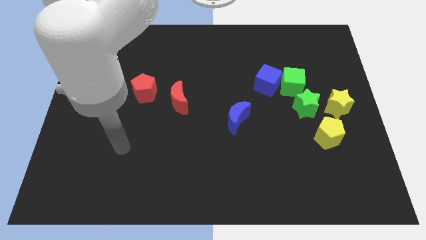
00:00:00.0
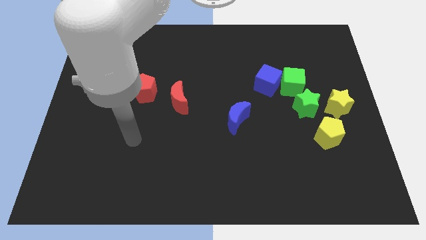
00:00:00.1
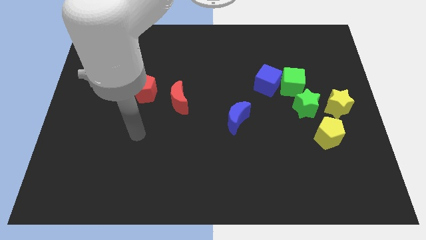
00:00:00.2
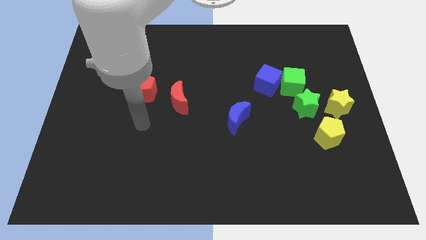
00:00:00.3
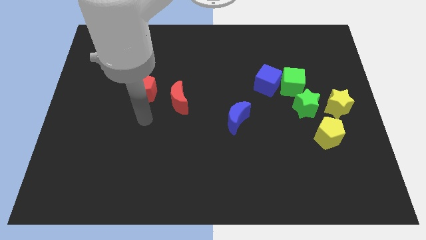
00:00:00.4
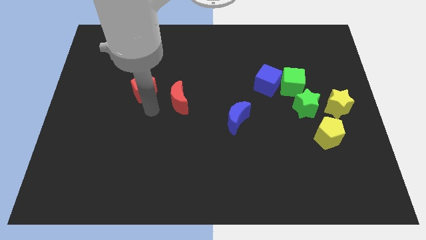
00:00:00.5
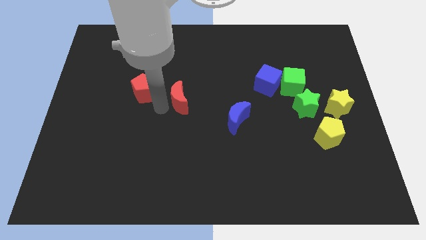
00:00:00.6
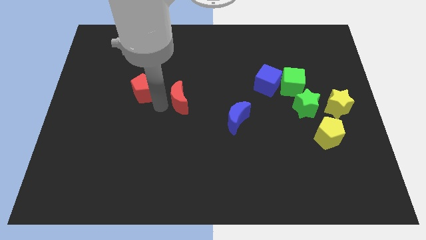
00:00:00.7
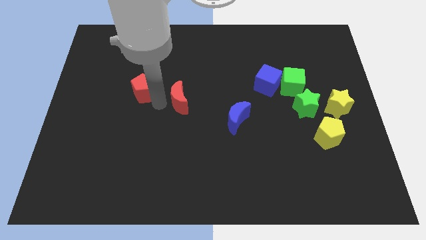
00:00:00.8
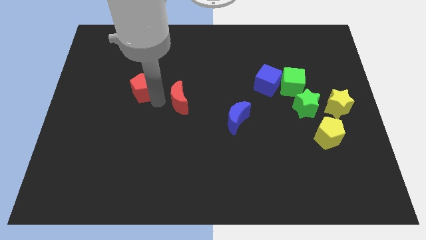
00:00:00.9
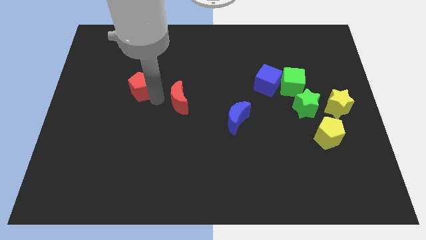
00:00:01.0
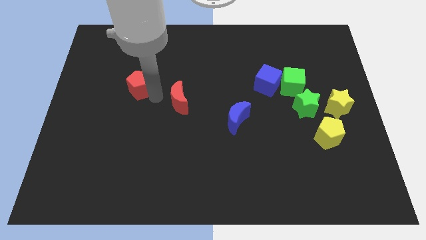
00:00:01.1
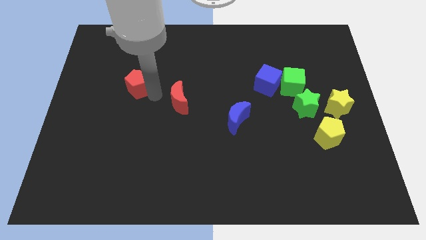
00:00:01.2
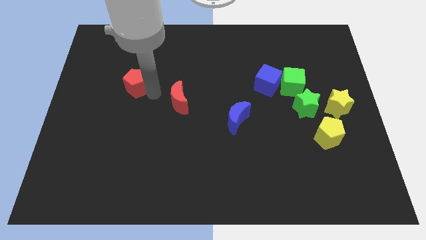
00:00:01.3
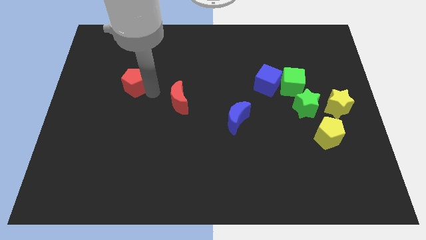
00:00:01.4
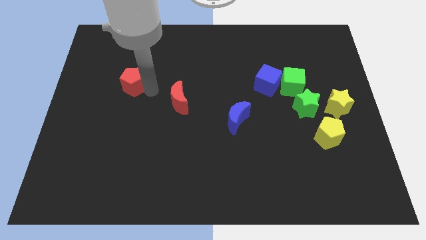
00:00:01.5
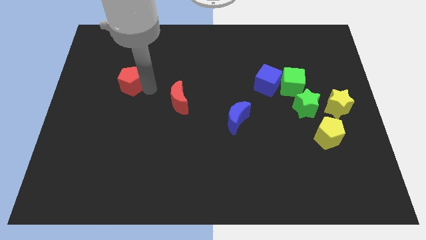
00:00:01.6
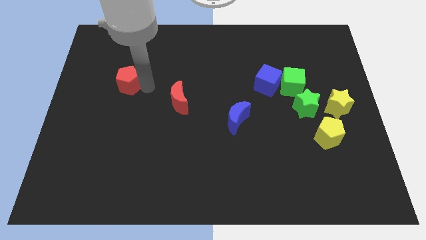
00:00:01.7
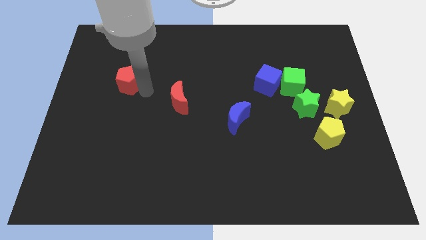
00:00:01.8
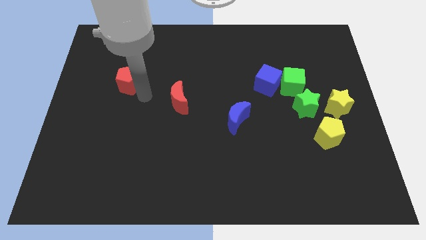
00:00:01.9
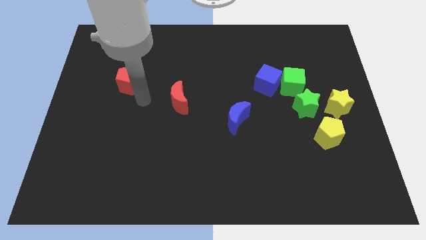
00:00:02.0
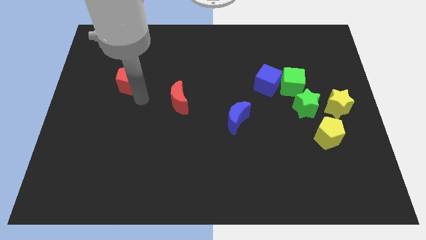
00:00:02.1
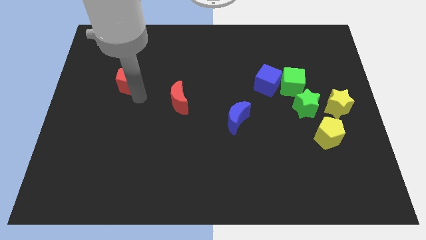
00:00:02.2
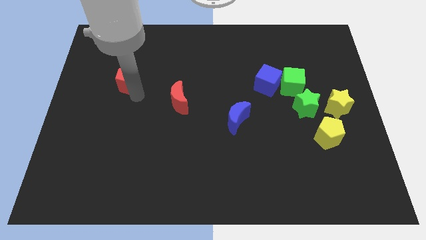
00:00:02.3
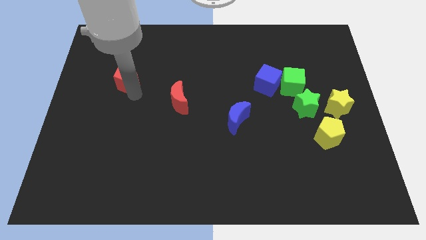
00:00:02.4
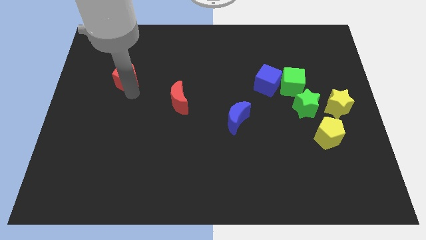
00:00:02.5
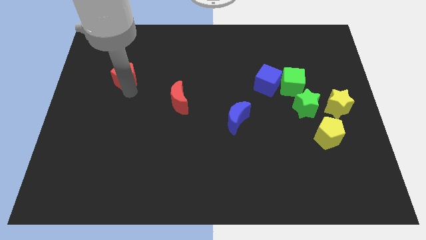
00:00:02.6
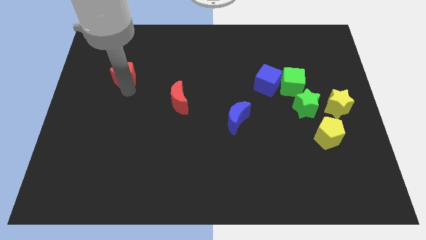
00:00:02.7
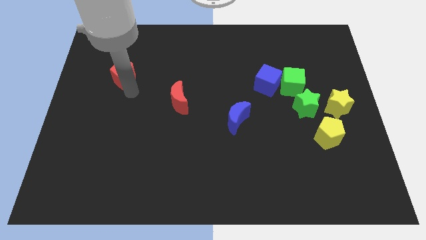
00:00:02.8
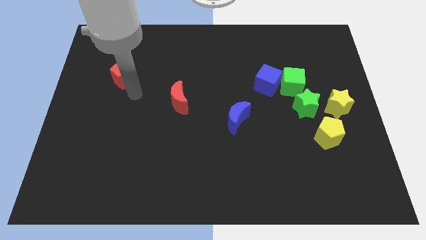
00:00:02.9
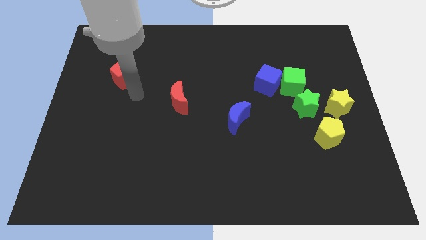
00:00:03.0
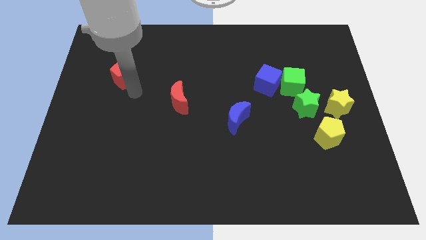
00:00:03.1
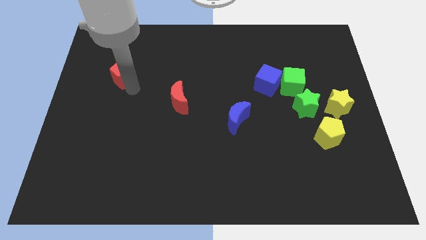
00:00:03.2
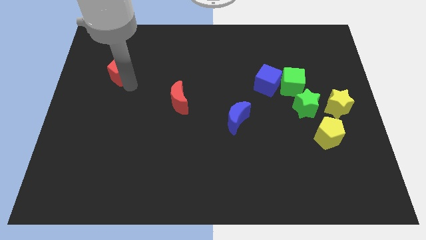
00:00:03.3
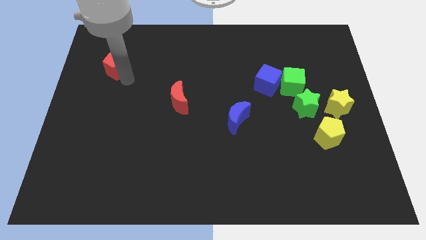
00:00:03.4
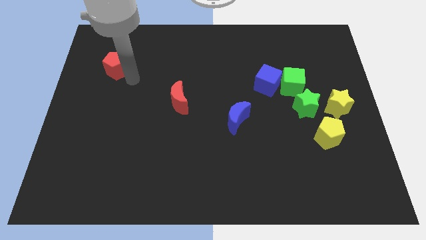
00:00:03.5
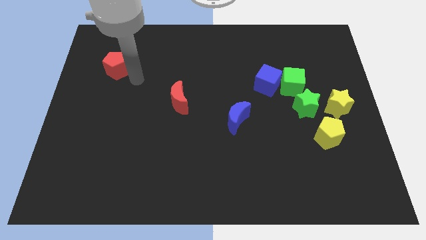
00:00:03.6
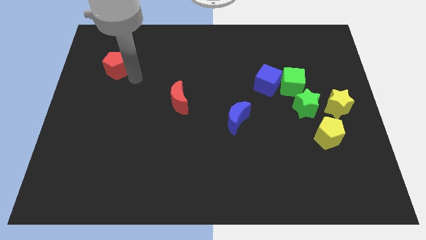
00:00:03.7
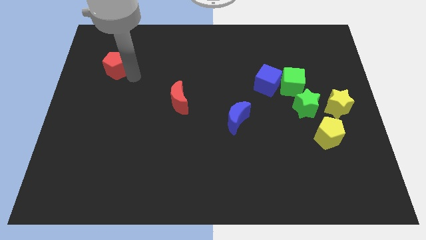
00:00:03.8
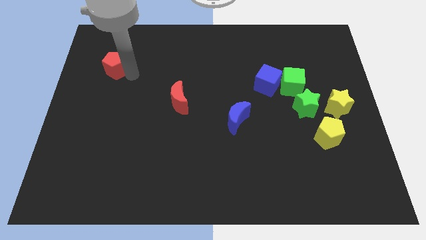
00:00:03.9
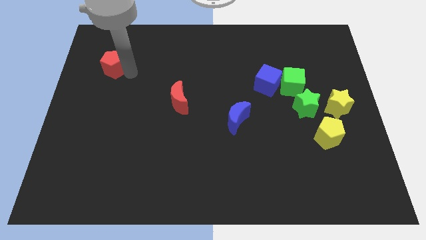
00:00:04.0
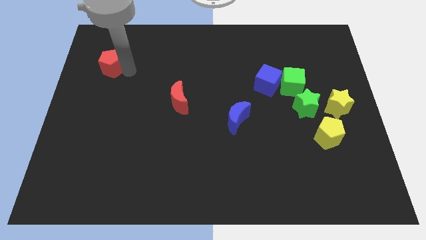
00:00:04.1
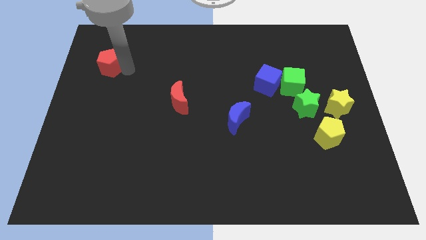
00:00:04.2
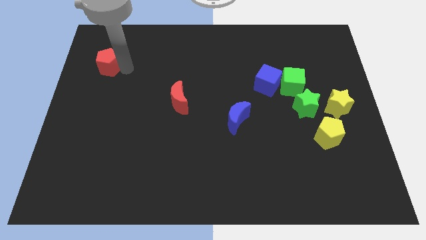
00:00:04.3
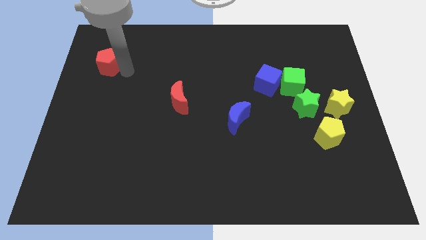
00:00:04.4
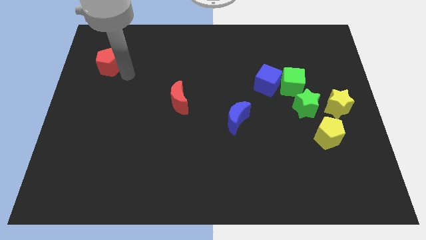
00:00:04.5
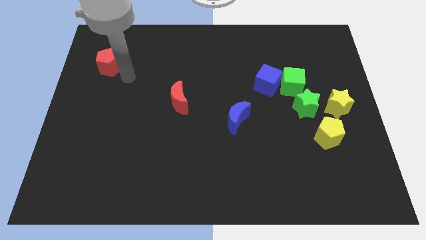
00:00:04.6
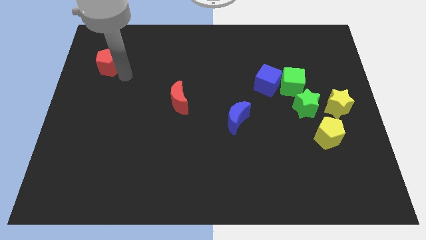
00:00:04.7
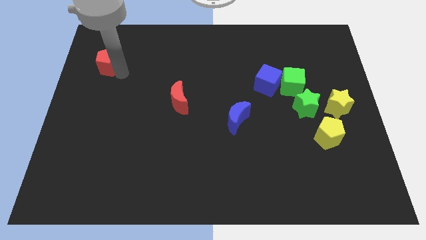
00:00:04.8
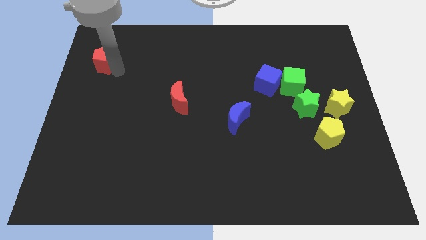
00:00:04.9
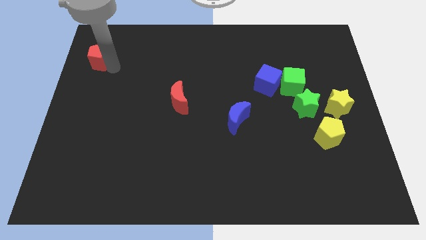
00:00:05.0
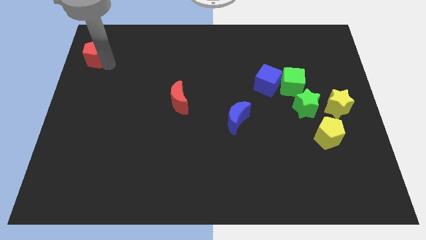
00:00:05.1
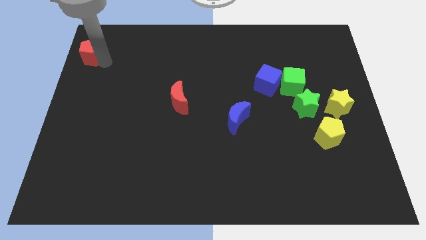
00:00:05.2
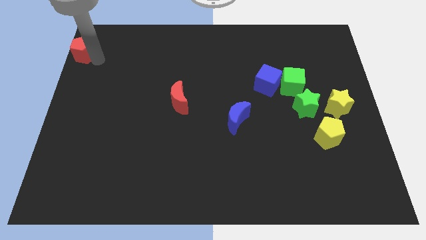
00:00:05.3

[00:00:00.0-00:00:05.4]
move the red pentagon to the top left

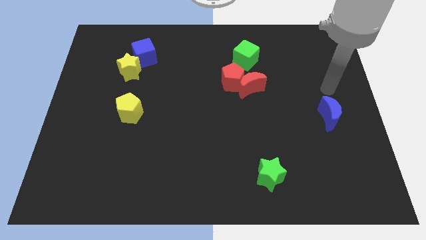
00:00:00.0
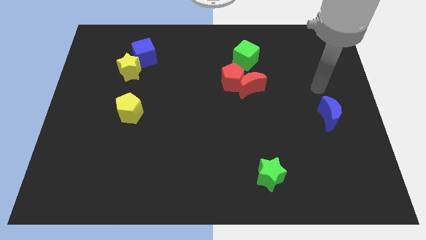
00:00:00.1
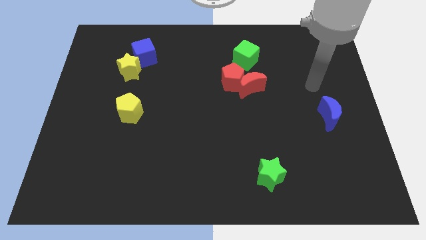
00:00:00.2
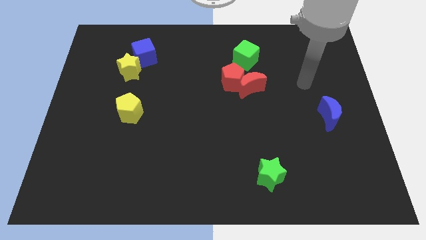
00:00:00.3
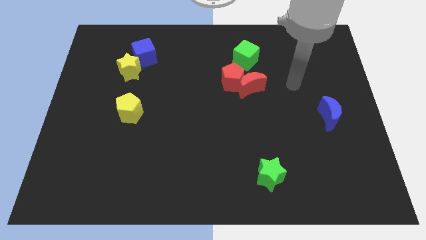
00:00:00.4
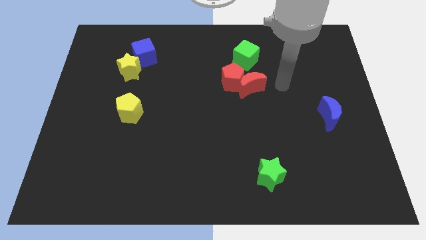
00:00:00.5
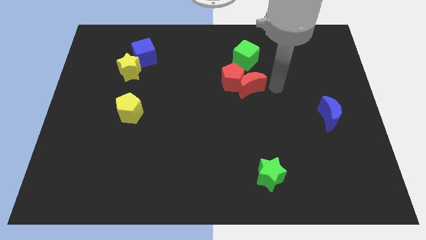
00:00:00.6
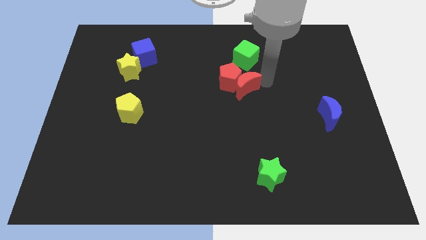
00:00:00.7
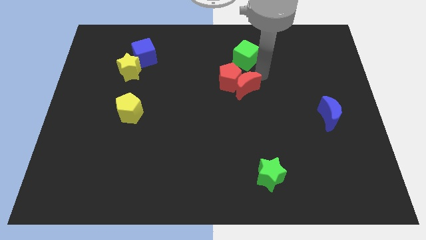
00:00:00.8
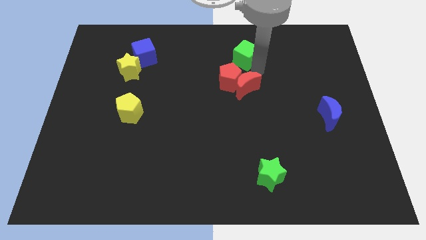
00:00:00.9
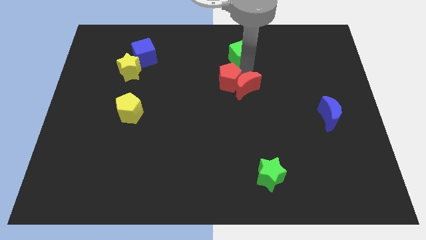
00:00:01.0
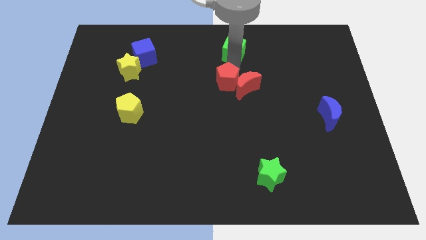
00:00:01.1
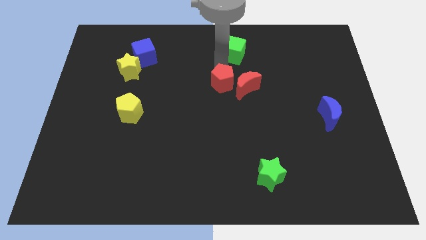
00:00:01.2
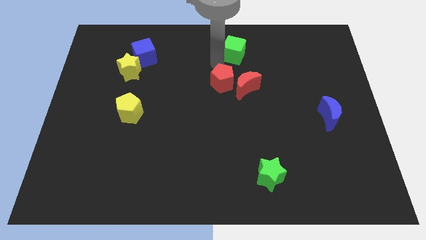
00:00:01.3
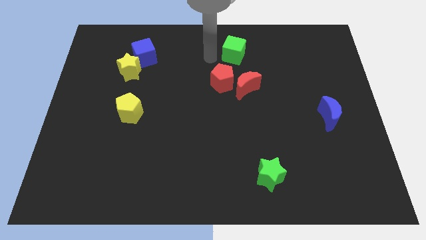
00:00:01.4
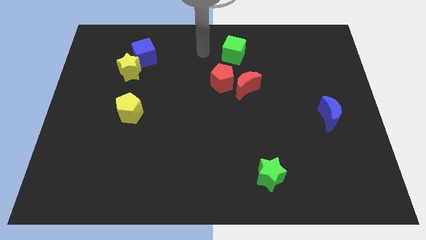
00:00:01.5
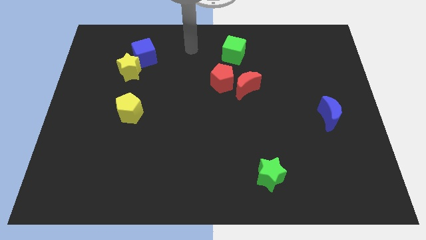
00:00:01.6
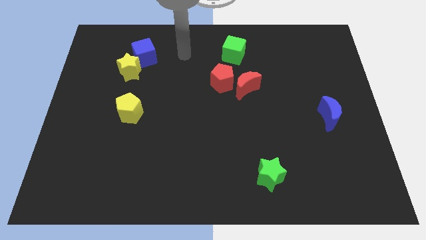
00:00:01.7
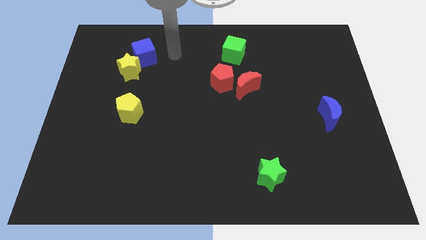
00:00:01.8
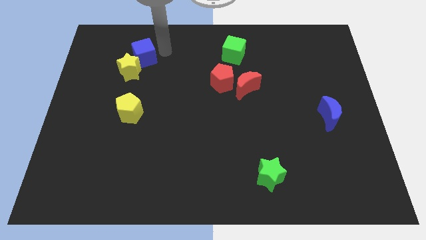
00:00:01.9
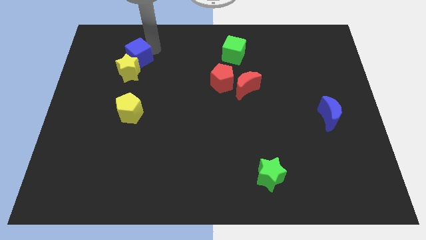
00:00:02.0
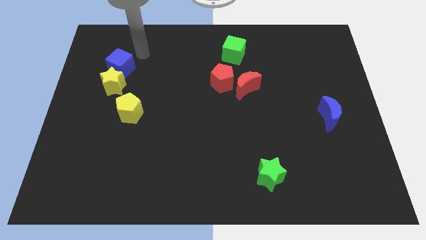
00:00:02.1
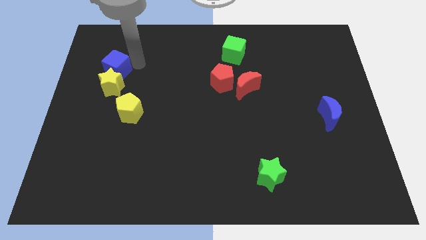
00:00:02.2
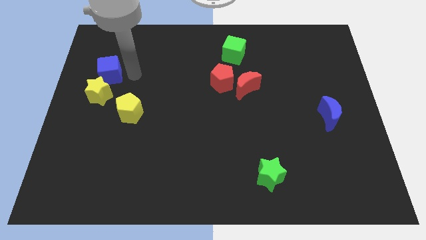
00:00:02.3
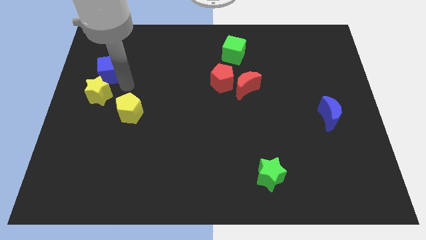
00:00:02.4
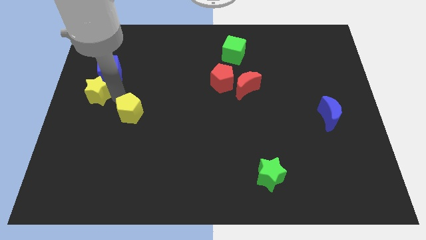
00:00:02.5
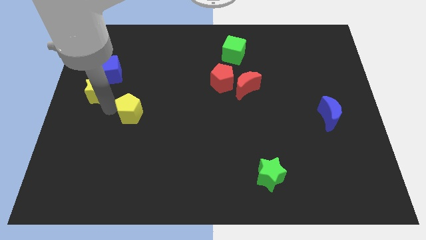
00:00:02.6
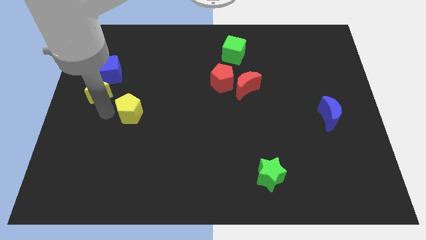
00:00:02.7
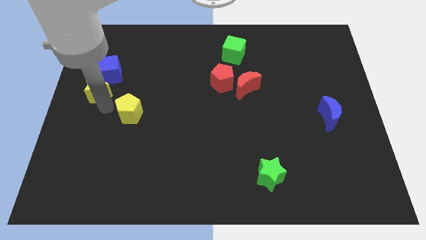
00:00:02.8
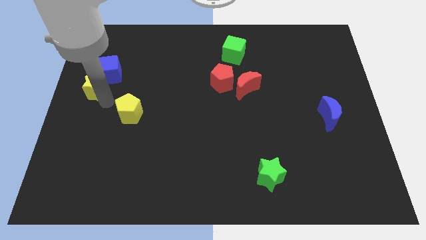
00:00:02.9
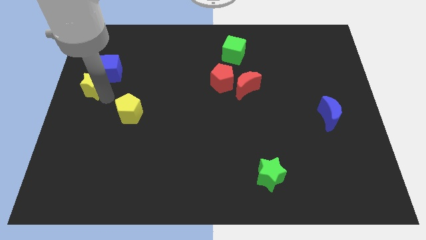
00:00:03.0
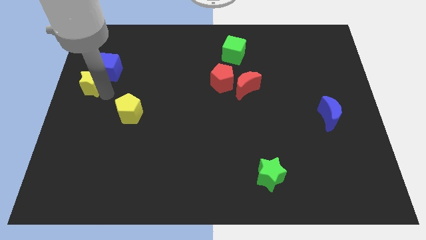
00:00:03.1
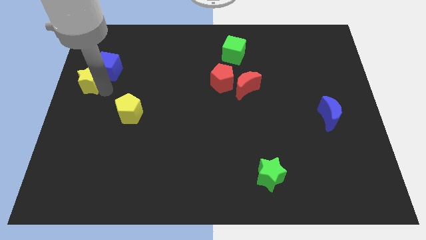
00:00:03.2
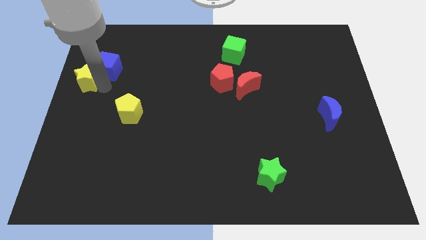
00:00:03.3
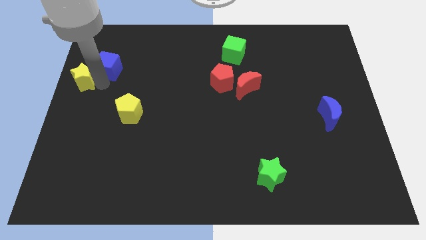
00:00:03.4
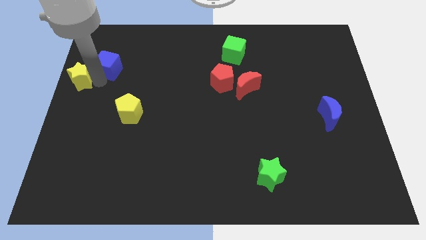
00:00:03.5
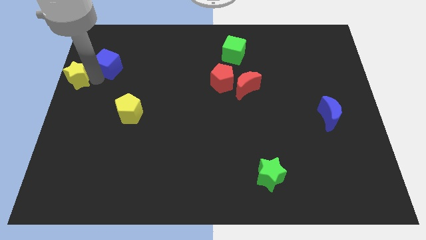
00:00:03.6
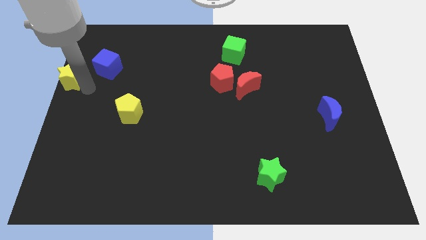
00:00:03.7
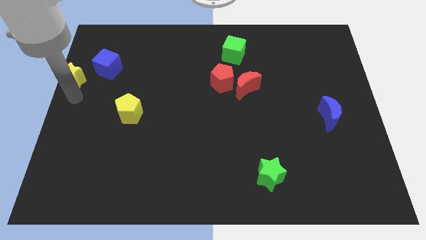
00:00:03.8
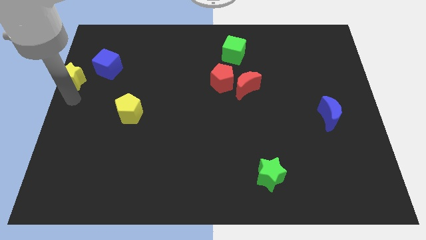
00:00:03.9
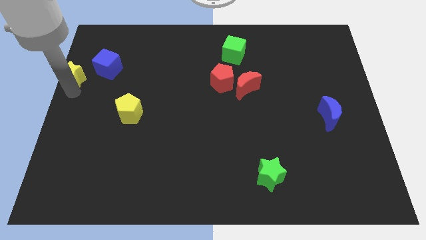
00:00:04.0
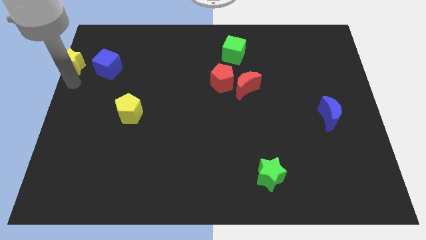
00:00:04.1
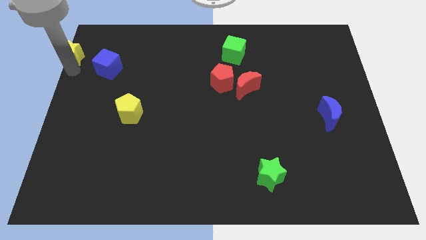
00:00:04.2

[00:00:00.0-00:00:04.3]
move the yellow star to the top left of the board
